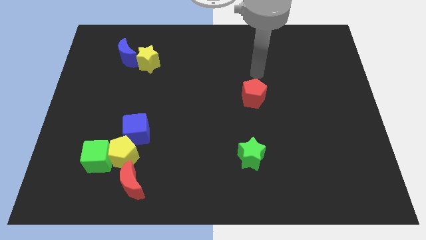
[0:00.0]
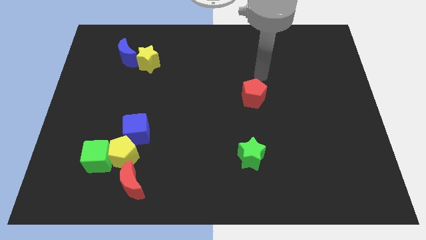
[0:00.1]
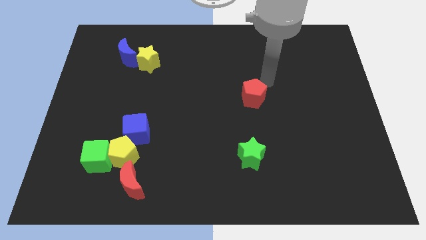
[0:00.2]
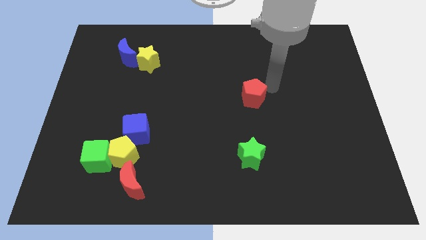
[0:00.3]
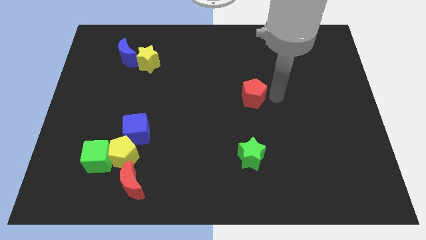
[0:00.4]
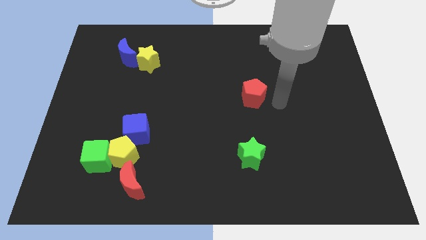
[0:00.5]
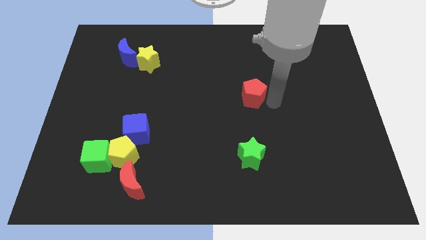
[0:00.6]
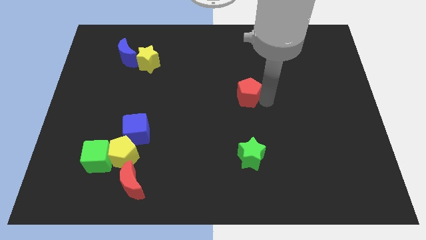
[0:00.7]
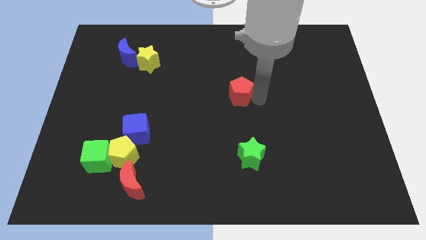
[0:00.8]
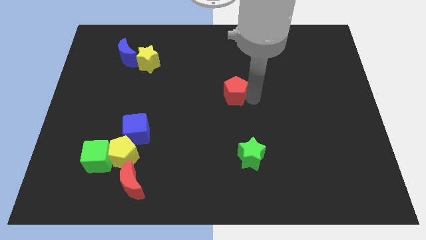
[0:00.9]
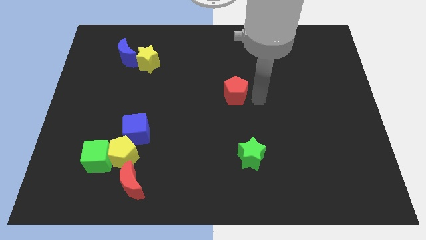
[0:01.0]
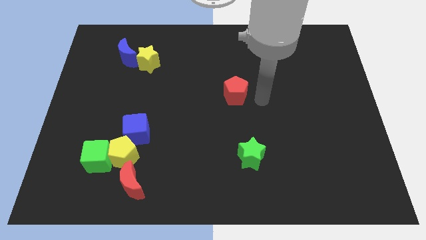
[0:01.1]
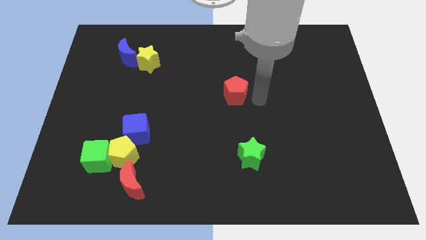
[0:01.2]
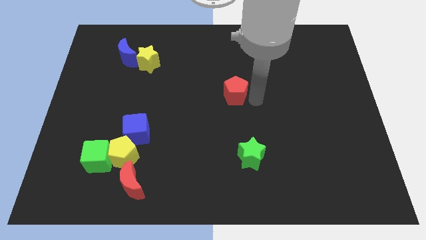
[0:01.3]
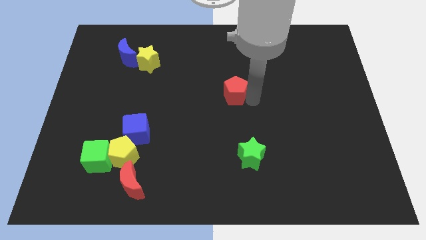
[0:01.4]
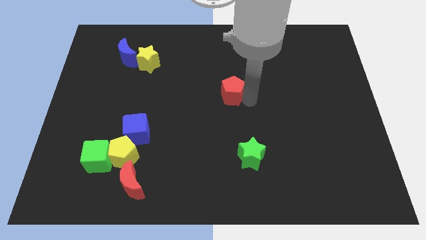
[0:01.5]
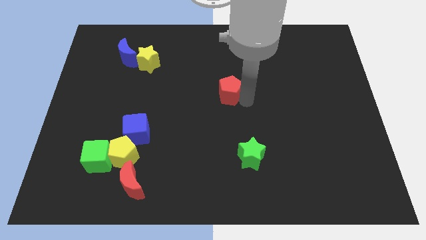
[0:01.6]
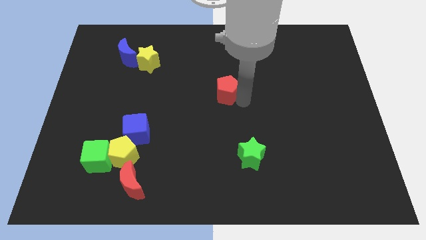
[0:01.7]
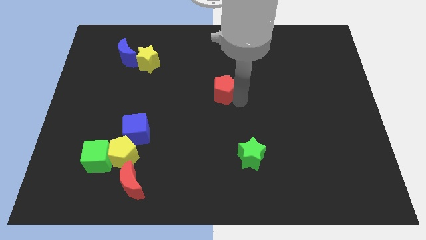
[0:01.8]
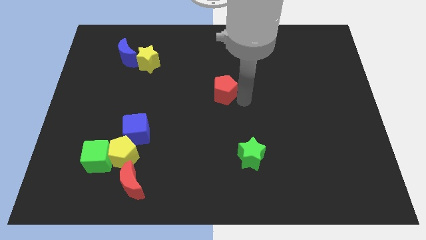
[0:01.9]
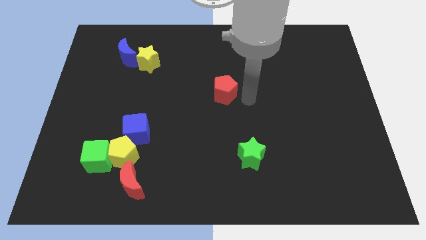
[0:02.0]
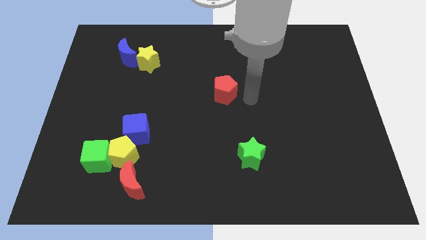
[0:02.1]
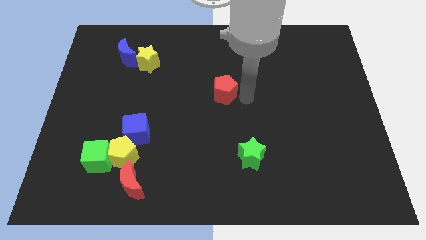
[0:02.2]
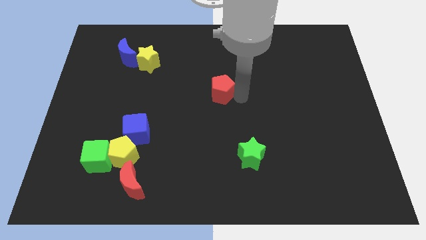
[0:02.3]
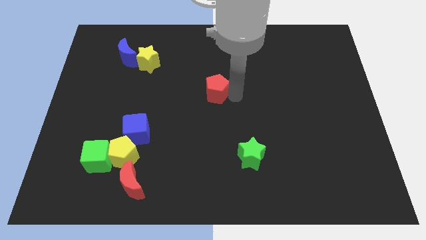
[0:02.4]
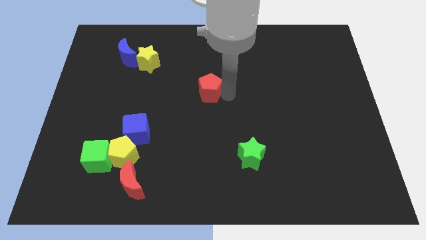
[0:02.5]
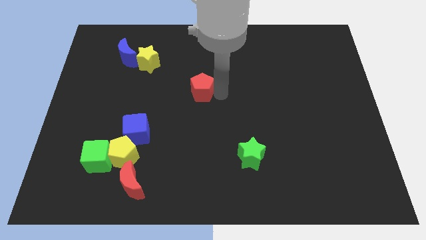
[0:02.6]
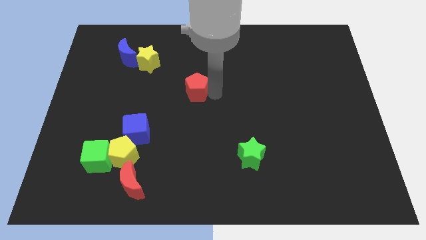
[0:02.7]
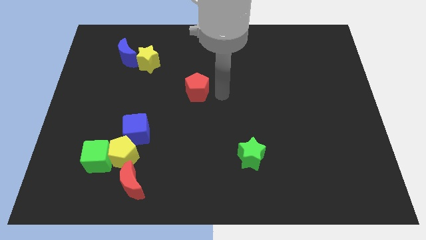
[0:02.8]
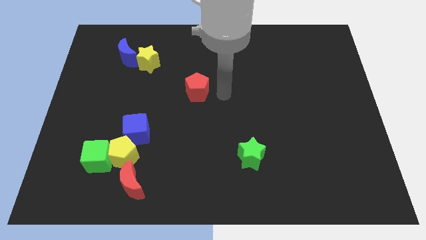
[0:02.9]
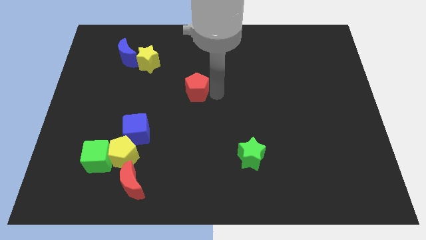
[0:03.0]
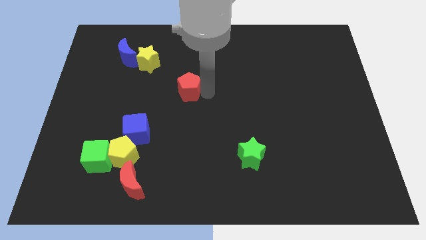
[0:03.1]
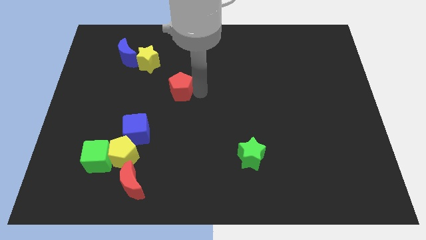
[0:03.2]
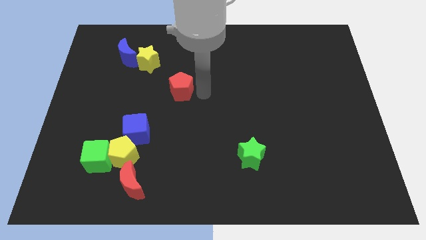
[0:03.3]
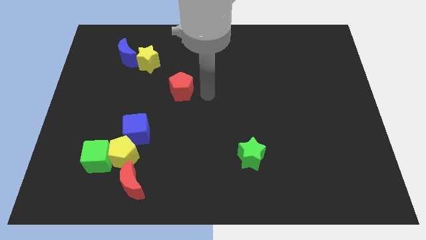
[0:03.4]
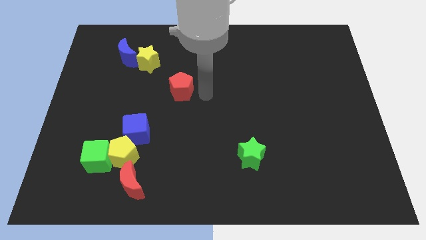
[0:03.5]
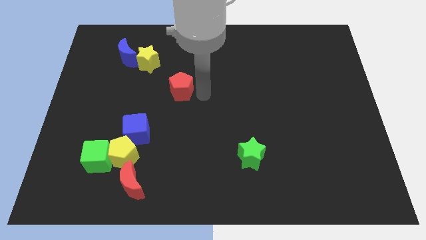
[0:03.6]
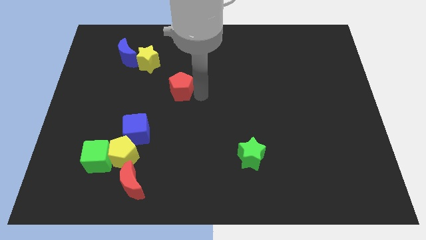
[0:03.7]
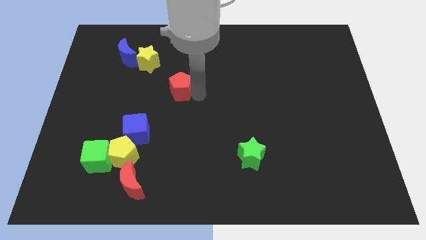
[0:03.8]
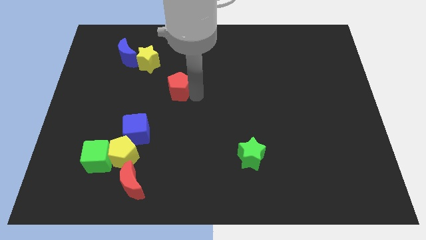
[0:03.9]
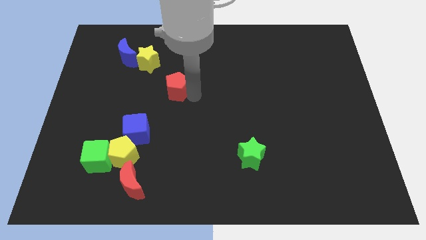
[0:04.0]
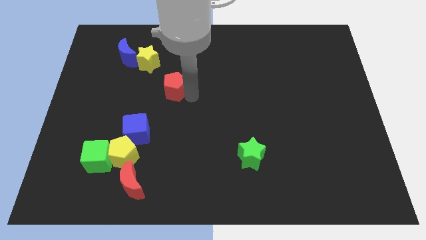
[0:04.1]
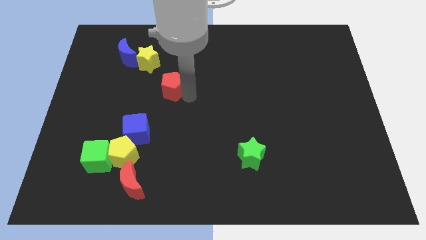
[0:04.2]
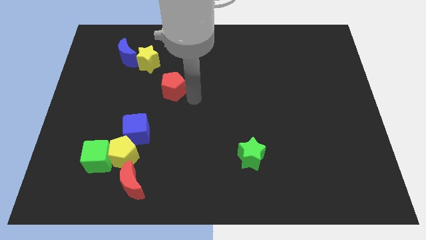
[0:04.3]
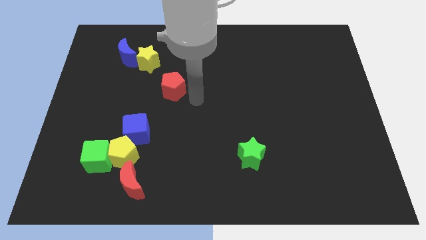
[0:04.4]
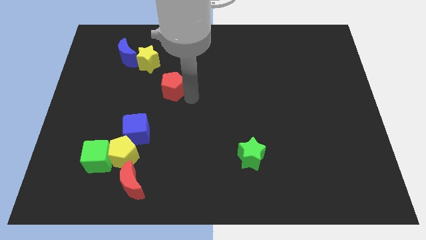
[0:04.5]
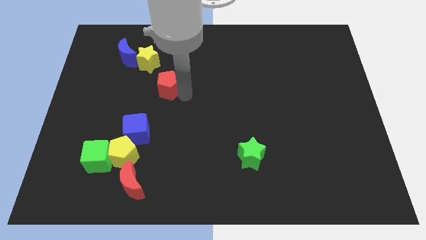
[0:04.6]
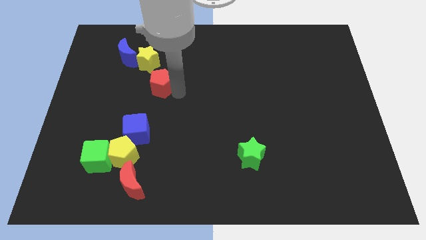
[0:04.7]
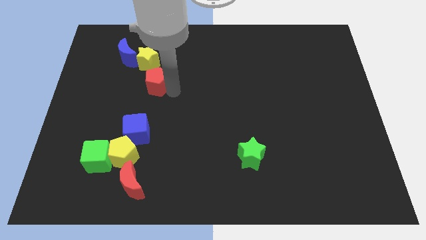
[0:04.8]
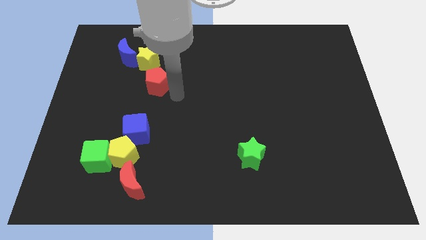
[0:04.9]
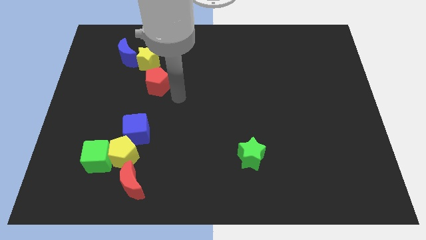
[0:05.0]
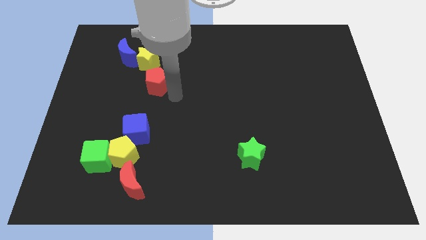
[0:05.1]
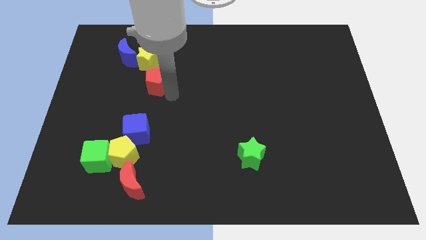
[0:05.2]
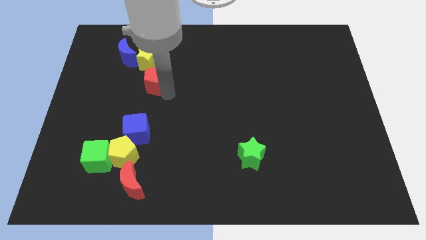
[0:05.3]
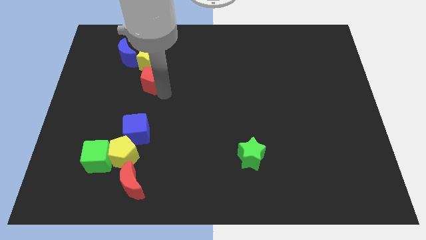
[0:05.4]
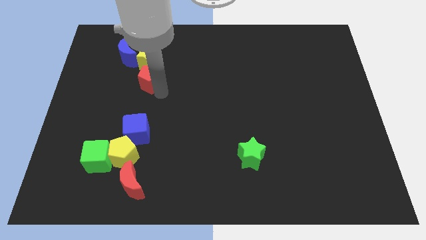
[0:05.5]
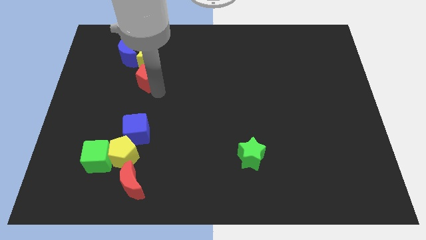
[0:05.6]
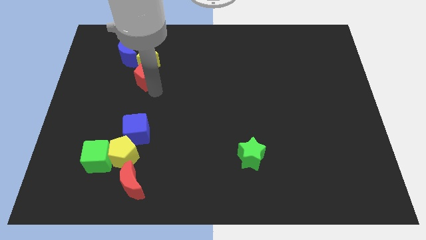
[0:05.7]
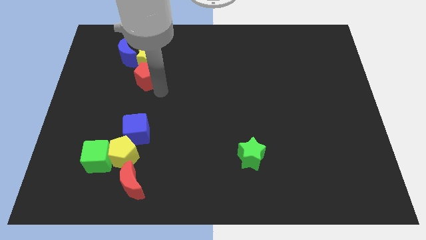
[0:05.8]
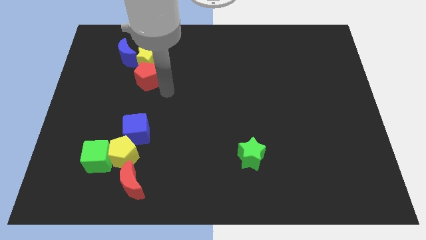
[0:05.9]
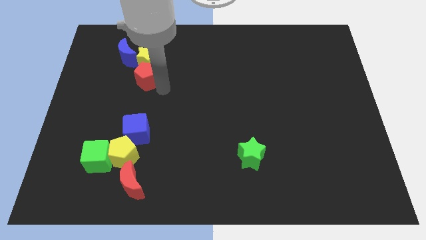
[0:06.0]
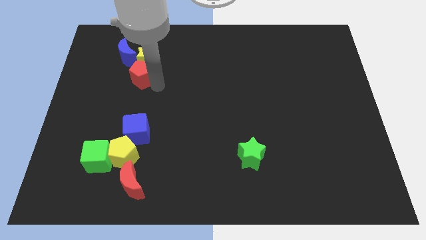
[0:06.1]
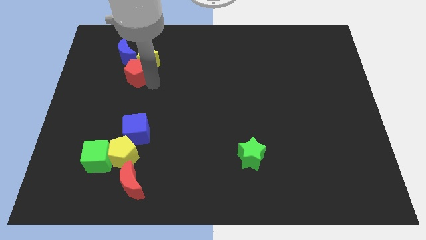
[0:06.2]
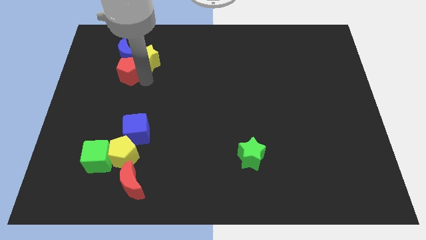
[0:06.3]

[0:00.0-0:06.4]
push the red pentagon just left of the yellow star

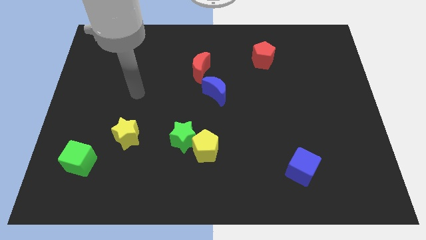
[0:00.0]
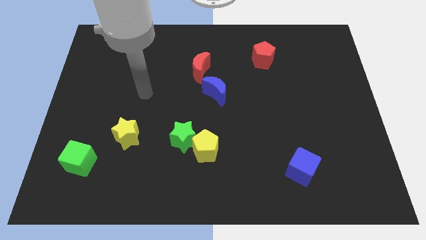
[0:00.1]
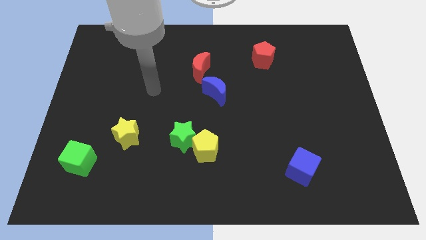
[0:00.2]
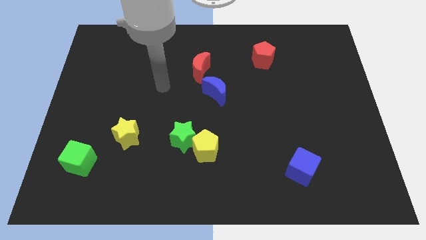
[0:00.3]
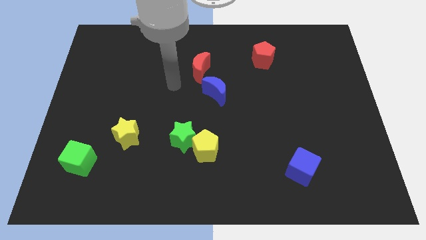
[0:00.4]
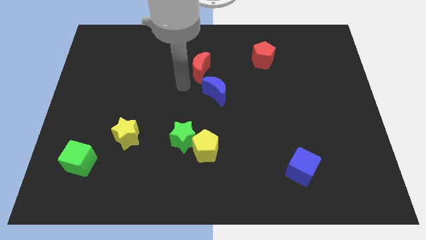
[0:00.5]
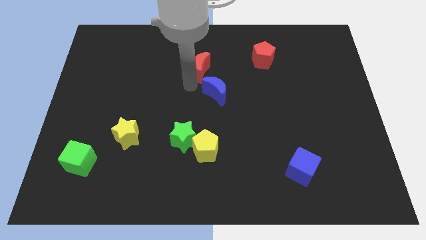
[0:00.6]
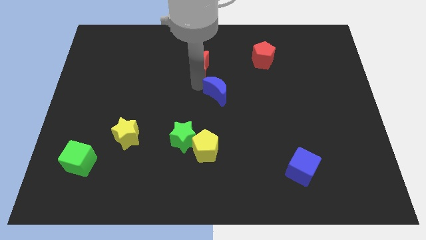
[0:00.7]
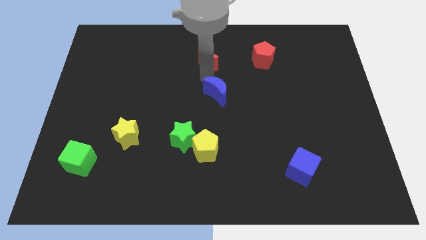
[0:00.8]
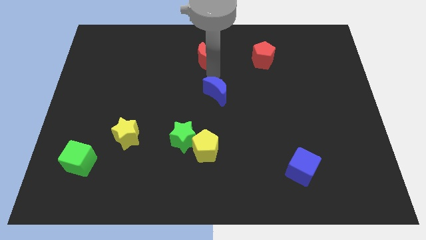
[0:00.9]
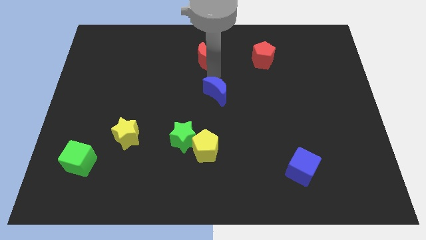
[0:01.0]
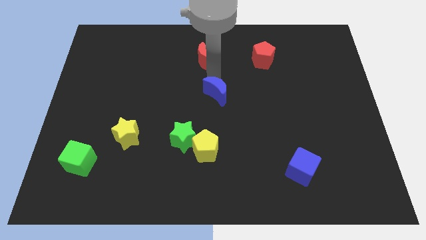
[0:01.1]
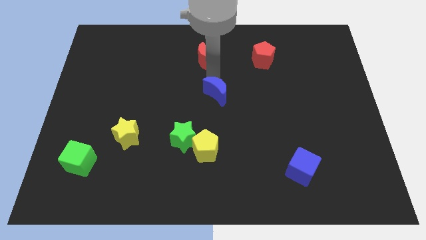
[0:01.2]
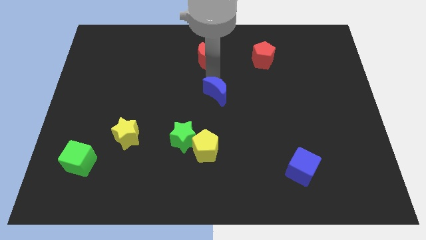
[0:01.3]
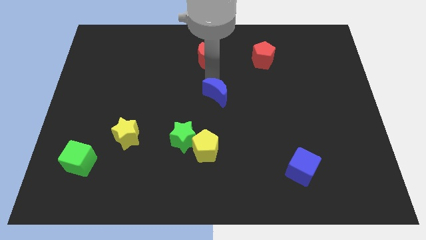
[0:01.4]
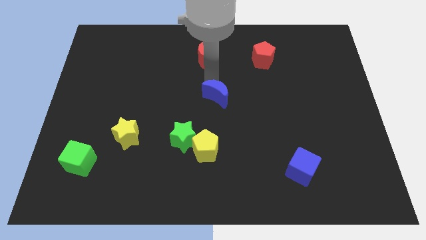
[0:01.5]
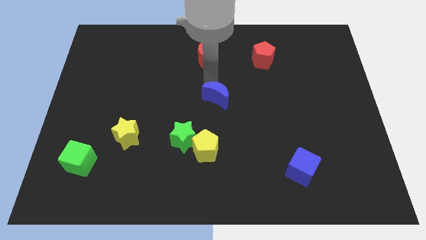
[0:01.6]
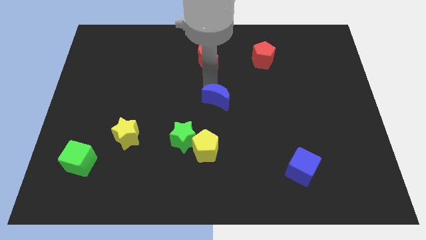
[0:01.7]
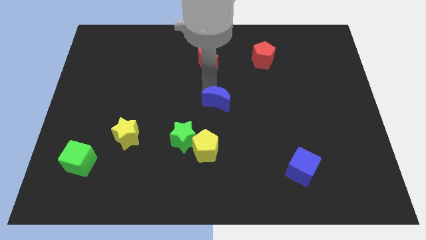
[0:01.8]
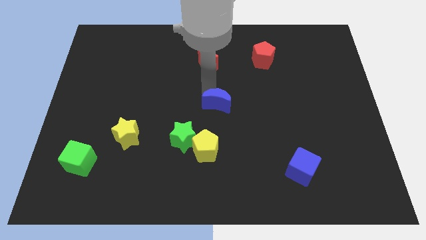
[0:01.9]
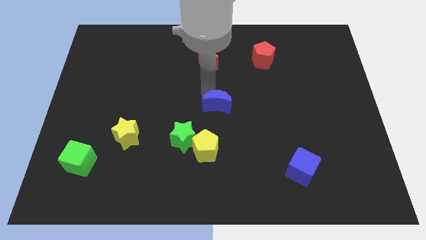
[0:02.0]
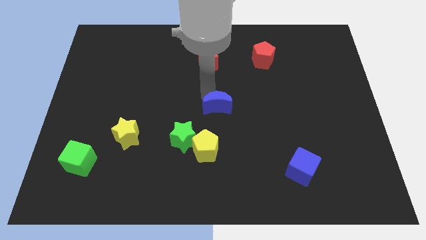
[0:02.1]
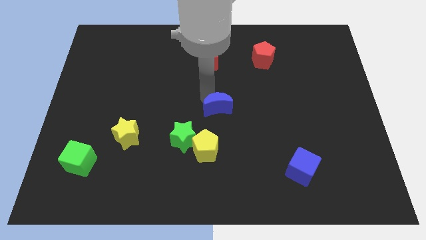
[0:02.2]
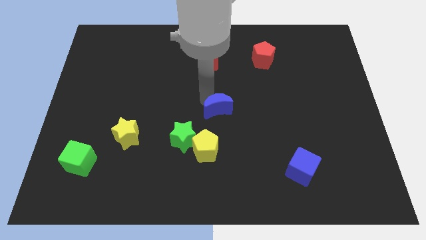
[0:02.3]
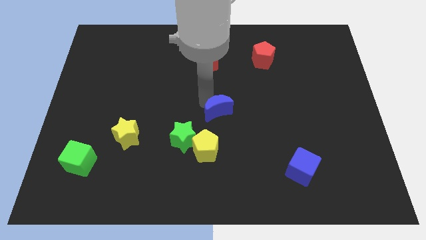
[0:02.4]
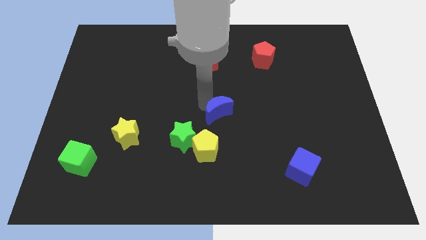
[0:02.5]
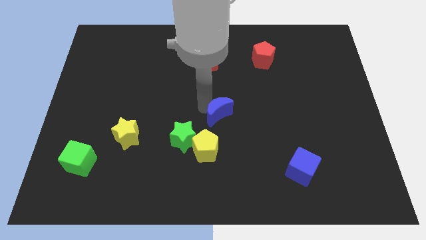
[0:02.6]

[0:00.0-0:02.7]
put the blue moon to the top right side of the yellow pentagon
